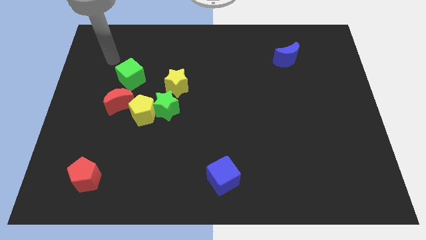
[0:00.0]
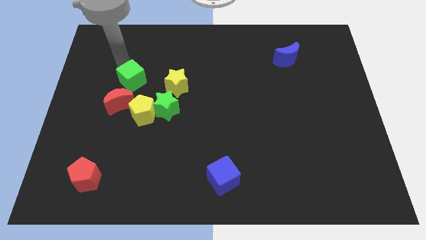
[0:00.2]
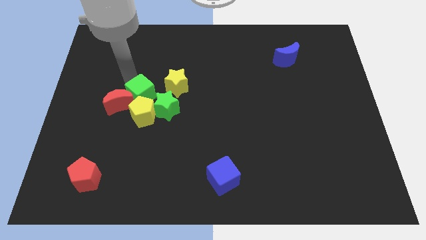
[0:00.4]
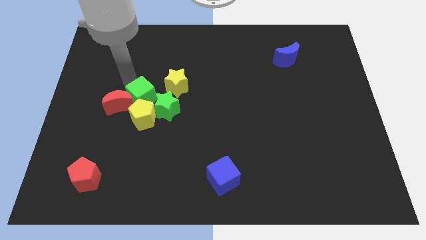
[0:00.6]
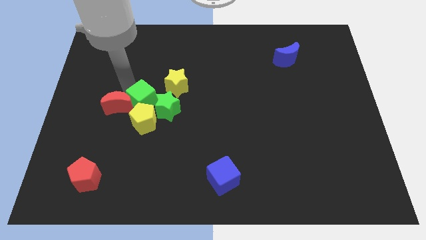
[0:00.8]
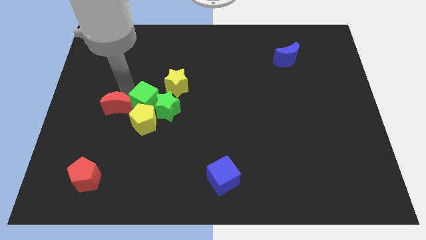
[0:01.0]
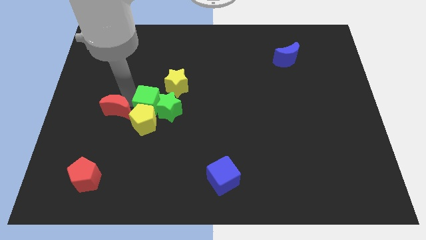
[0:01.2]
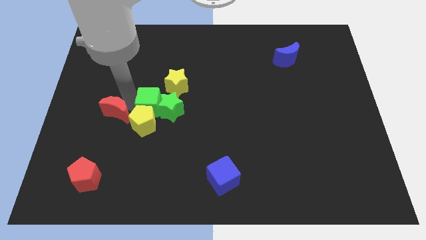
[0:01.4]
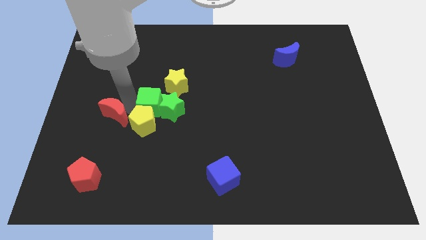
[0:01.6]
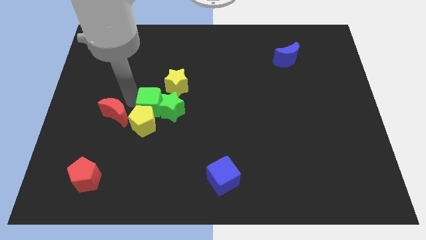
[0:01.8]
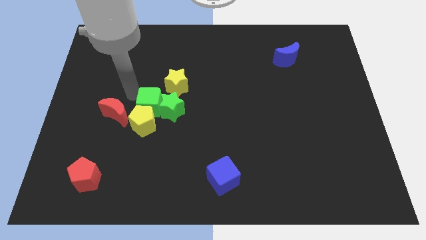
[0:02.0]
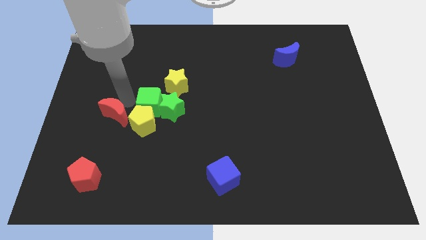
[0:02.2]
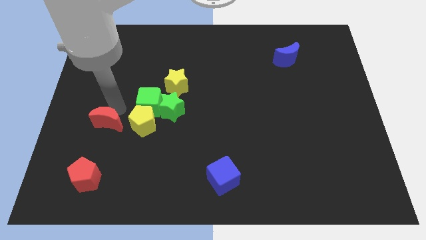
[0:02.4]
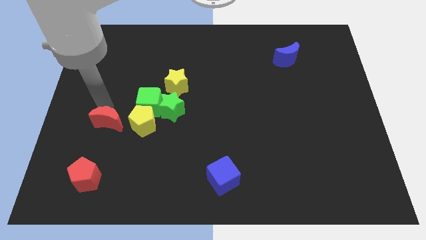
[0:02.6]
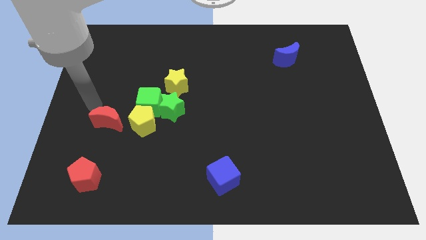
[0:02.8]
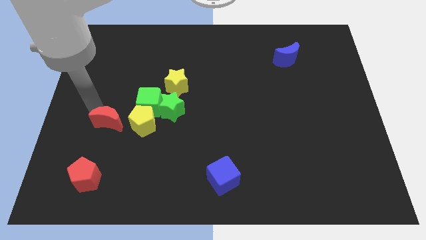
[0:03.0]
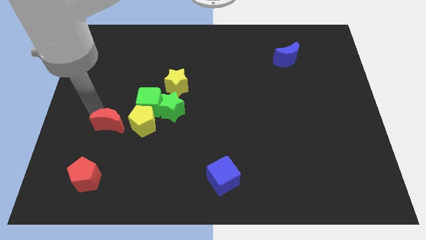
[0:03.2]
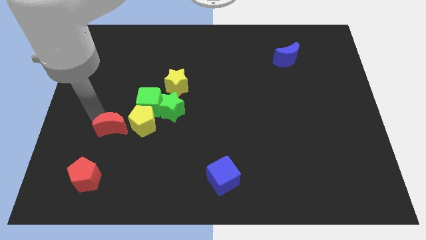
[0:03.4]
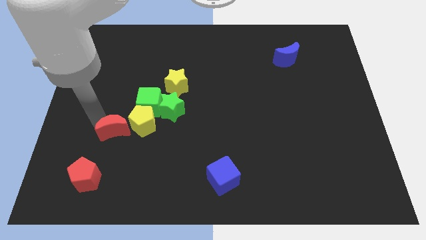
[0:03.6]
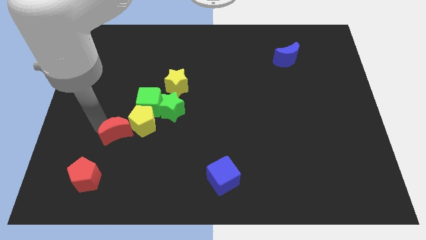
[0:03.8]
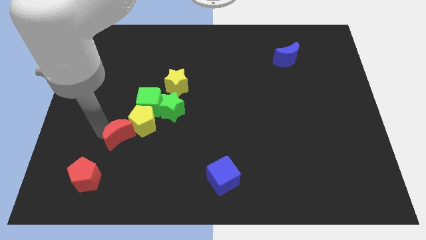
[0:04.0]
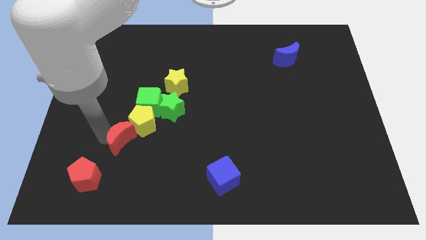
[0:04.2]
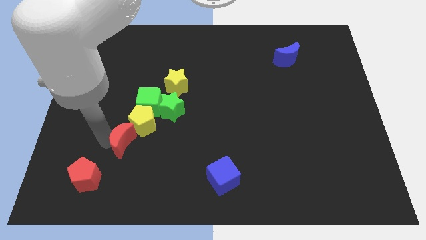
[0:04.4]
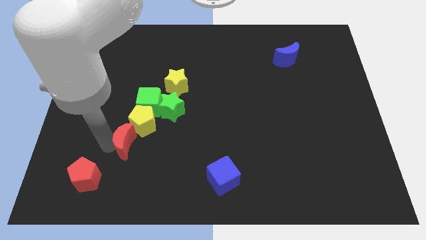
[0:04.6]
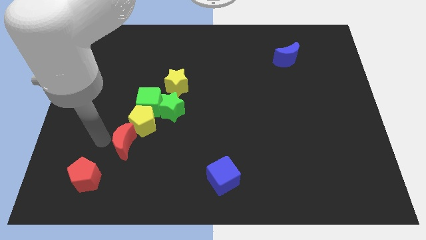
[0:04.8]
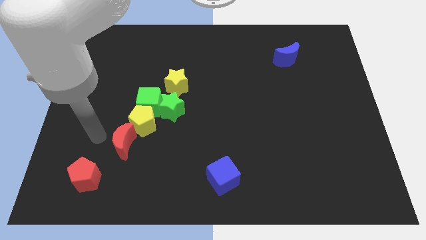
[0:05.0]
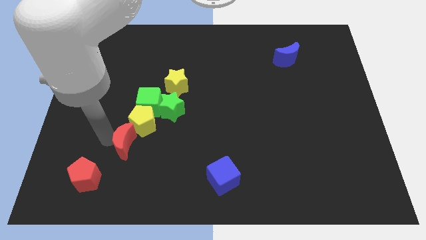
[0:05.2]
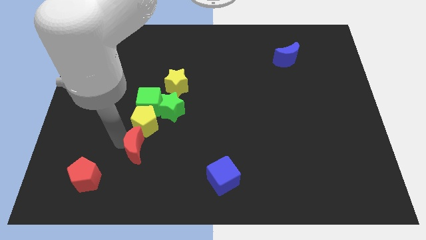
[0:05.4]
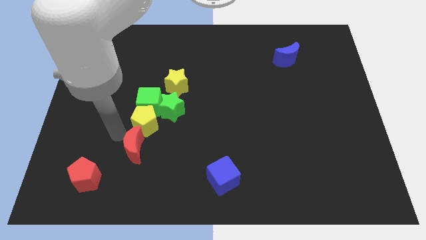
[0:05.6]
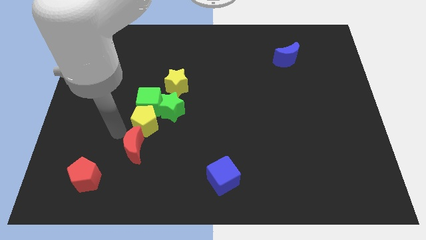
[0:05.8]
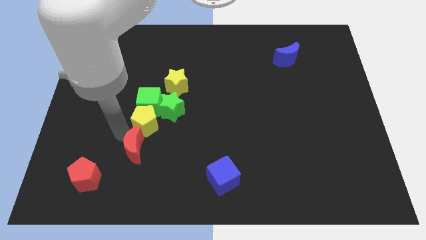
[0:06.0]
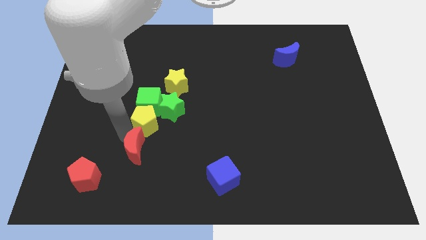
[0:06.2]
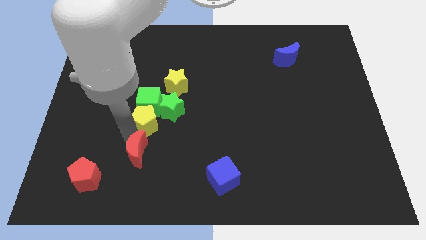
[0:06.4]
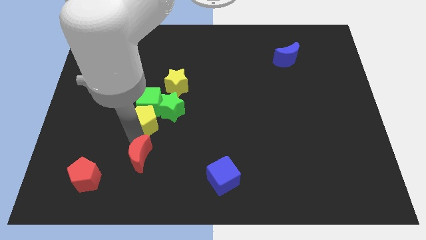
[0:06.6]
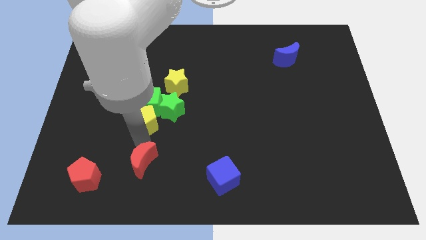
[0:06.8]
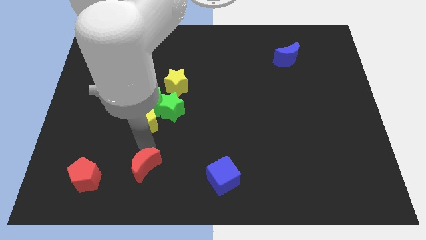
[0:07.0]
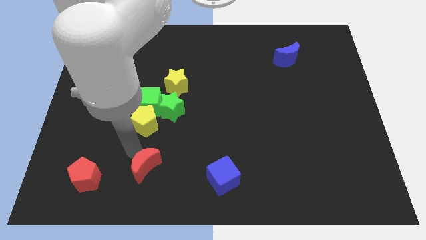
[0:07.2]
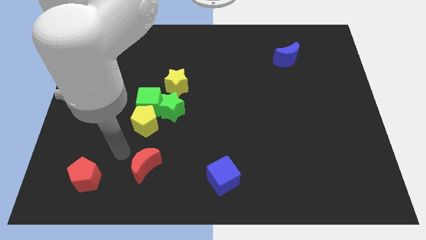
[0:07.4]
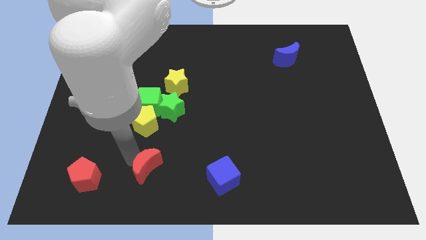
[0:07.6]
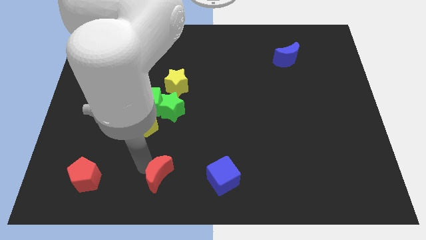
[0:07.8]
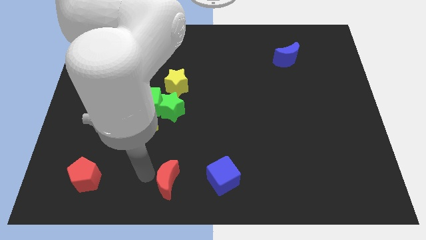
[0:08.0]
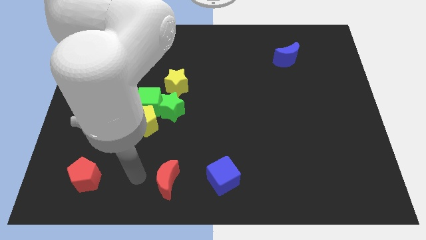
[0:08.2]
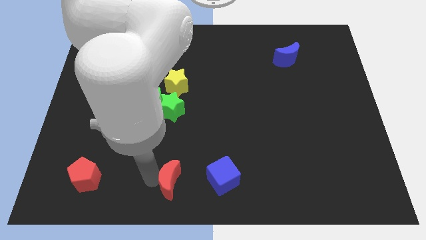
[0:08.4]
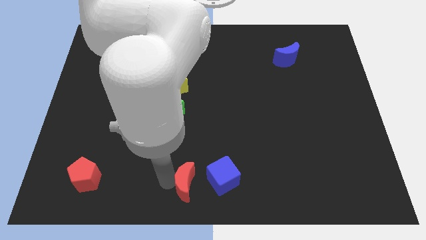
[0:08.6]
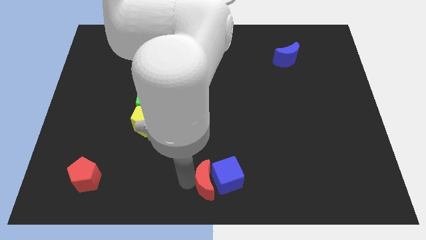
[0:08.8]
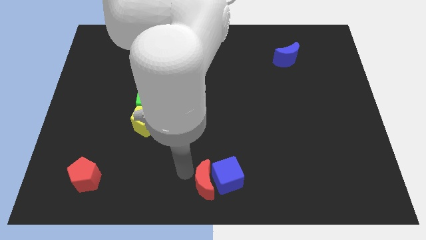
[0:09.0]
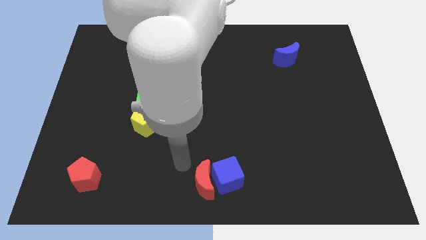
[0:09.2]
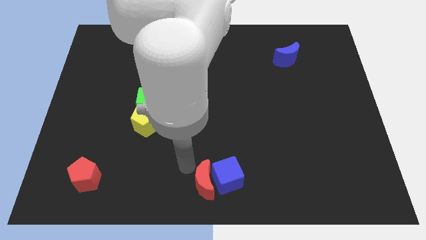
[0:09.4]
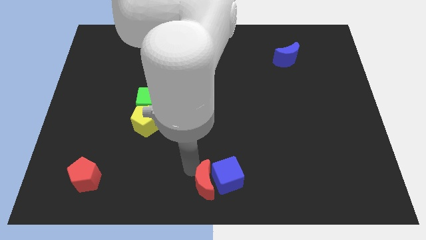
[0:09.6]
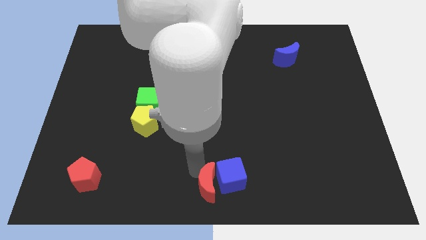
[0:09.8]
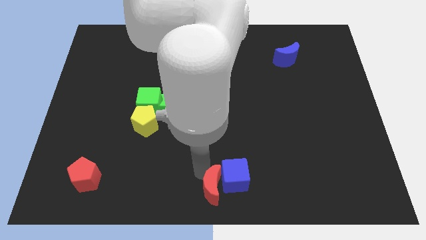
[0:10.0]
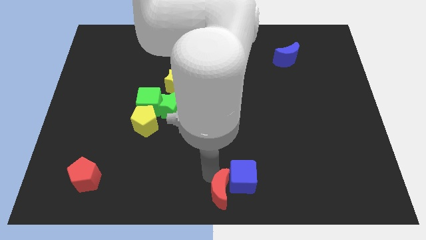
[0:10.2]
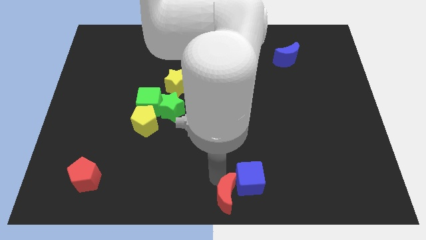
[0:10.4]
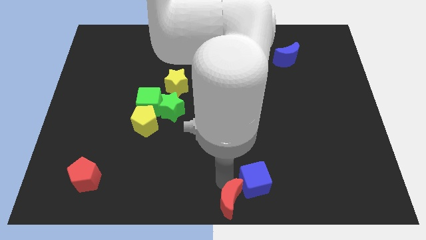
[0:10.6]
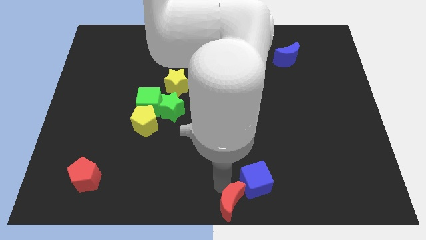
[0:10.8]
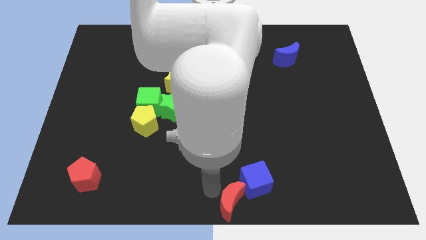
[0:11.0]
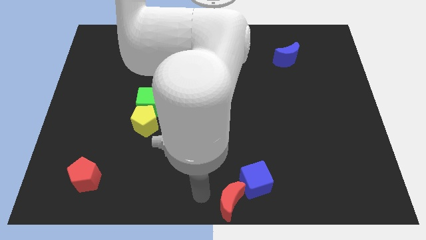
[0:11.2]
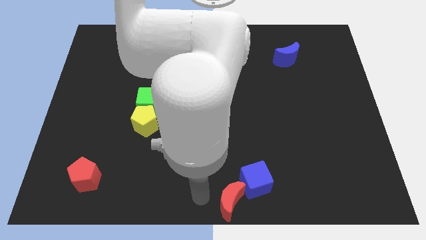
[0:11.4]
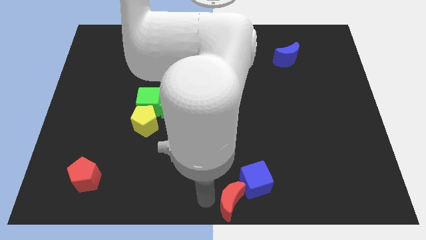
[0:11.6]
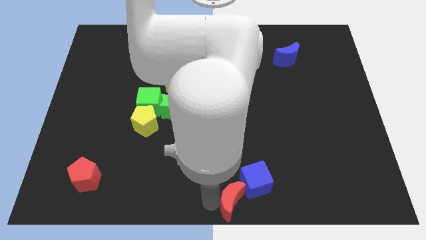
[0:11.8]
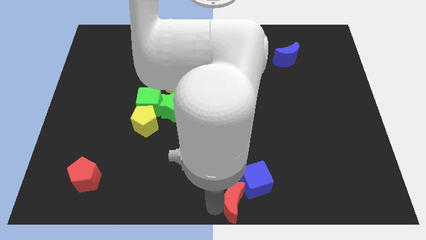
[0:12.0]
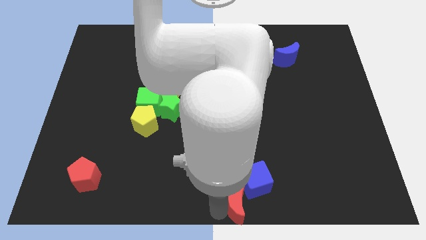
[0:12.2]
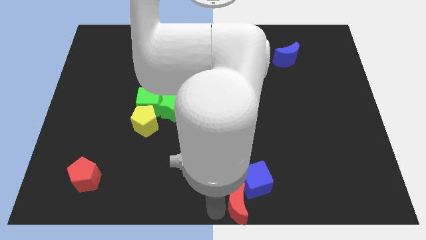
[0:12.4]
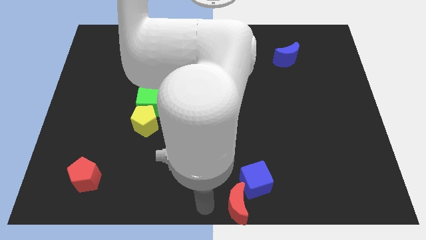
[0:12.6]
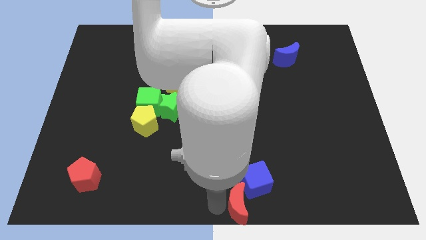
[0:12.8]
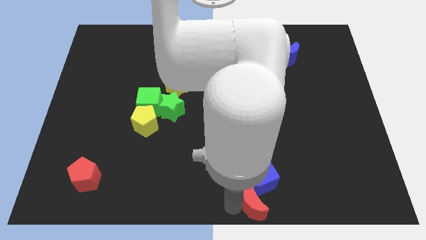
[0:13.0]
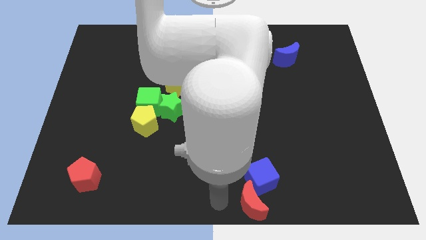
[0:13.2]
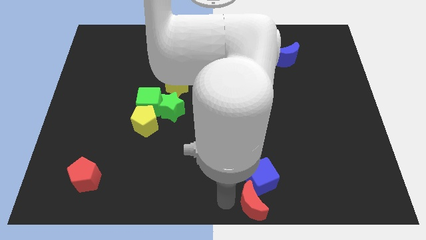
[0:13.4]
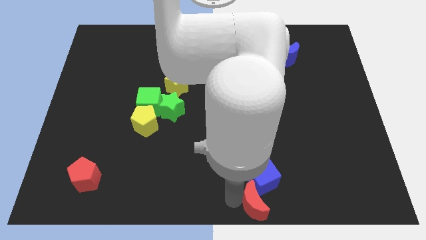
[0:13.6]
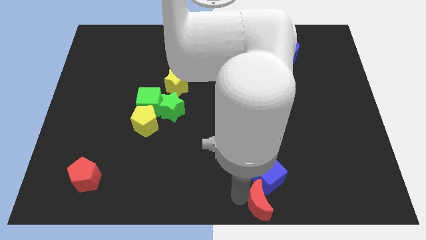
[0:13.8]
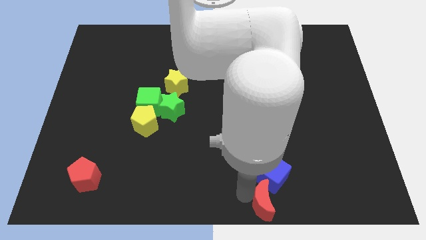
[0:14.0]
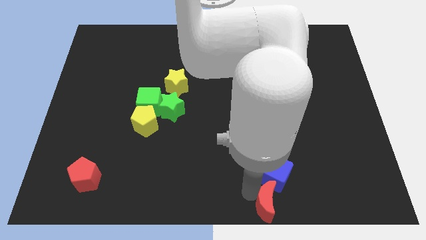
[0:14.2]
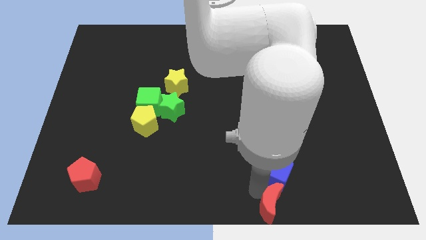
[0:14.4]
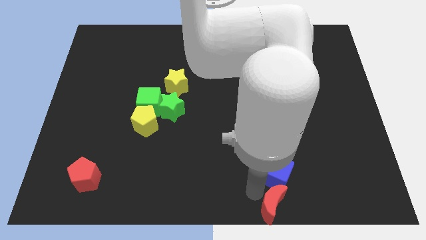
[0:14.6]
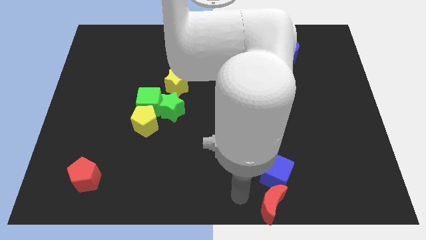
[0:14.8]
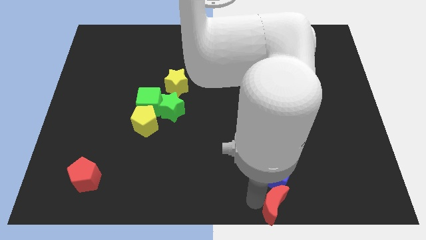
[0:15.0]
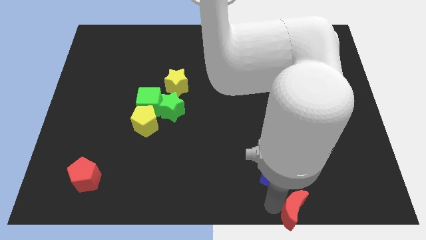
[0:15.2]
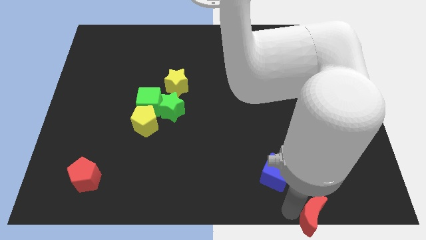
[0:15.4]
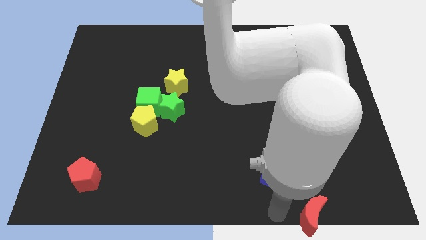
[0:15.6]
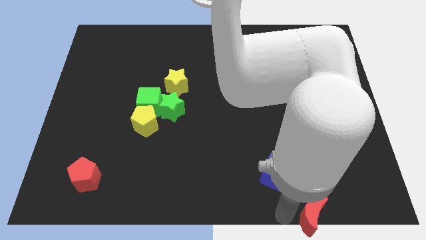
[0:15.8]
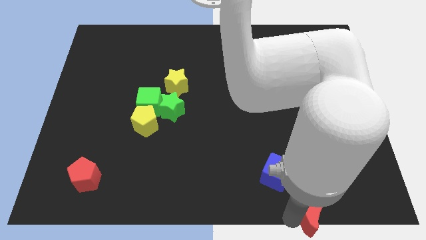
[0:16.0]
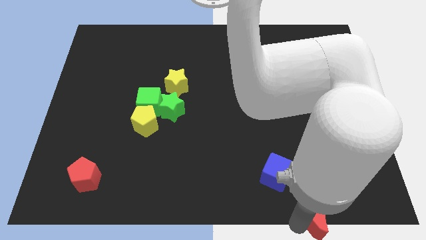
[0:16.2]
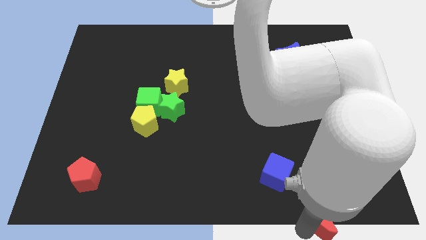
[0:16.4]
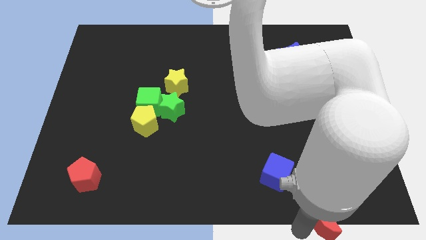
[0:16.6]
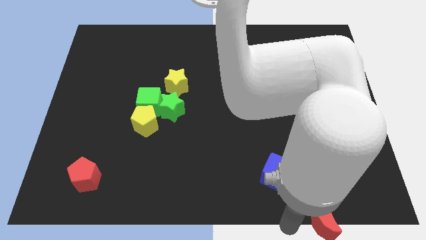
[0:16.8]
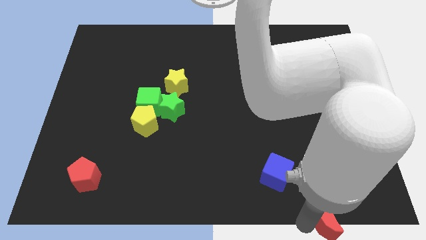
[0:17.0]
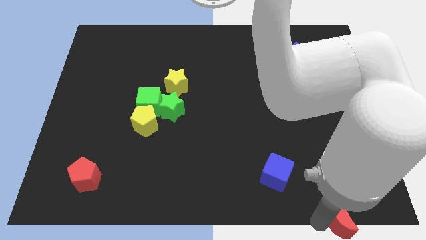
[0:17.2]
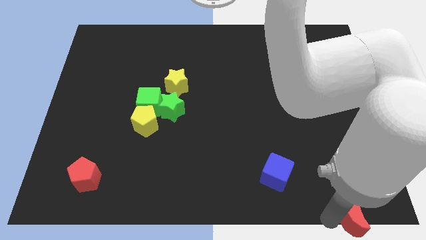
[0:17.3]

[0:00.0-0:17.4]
slide the red moon to the lower right corner
